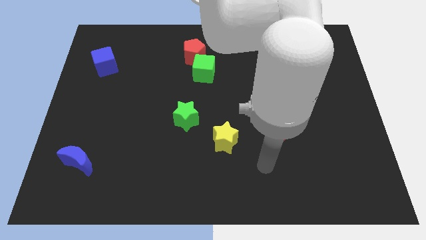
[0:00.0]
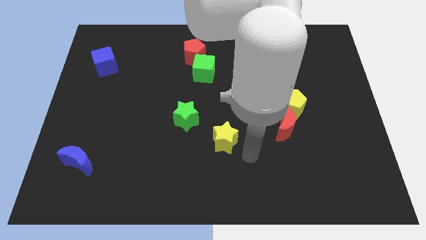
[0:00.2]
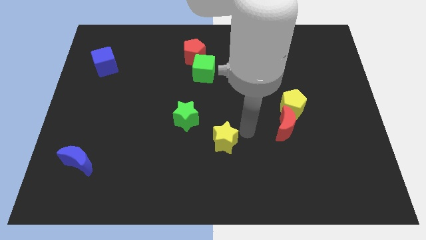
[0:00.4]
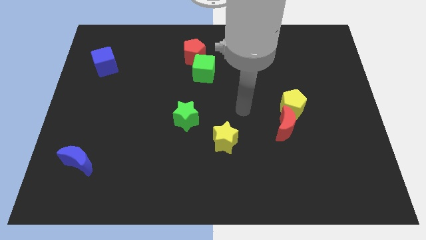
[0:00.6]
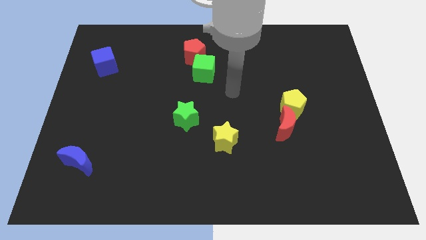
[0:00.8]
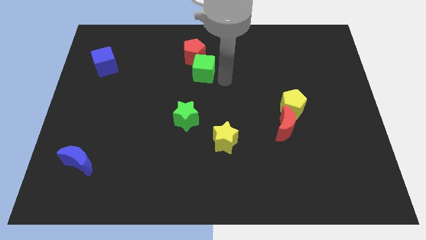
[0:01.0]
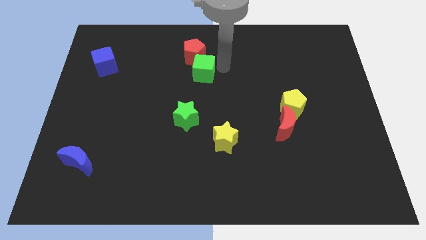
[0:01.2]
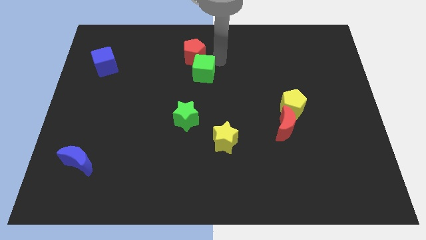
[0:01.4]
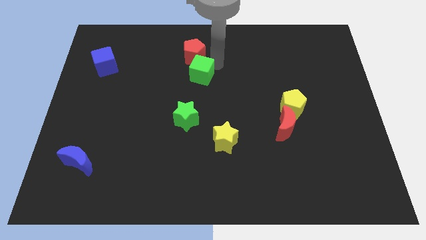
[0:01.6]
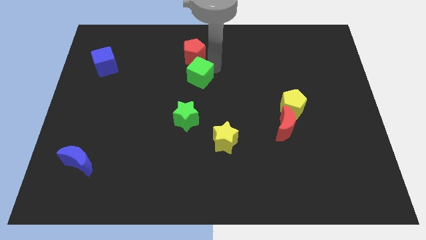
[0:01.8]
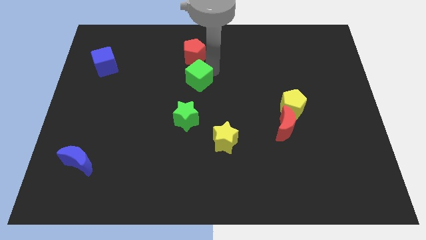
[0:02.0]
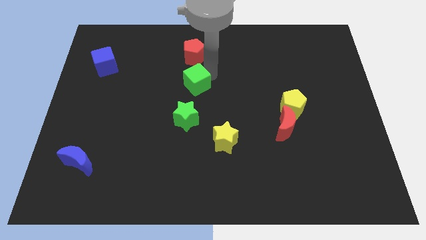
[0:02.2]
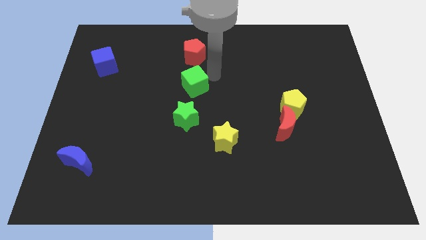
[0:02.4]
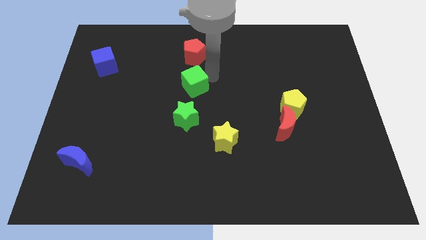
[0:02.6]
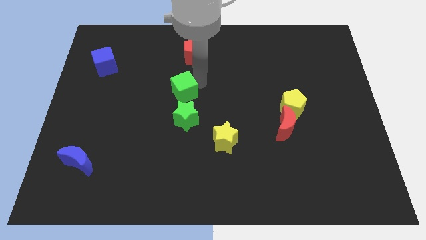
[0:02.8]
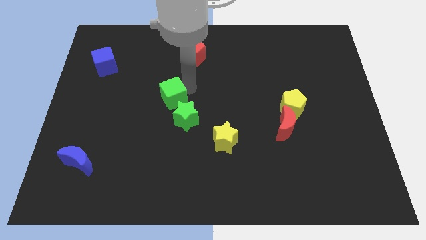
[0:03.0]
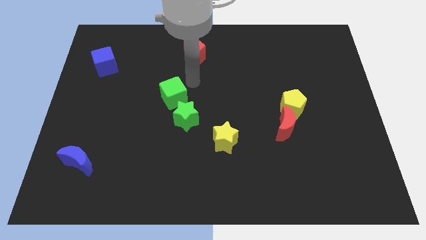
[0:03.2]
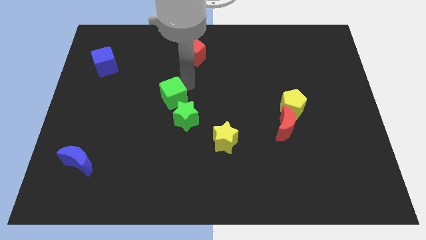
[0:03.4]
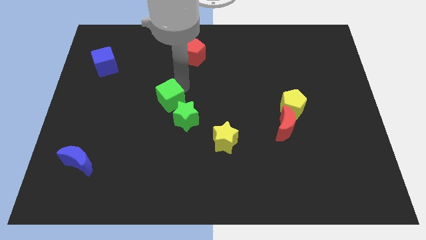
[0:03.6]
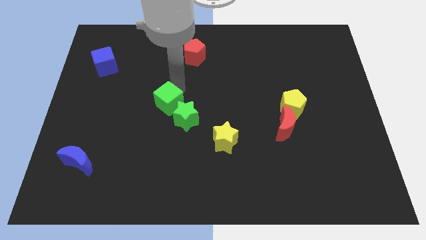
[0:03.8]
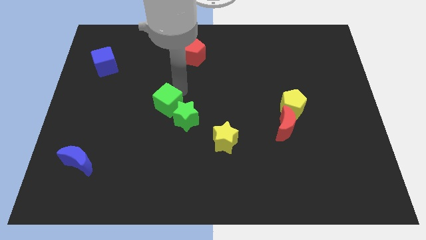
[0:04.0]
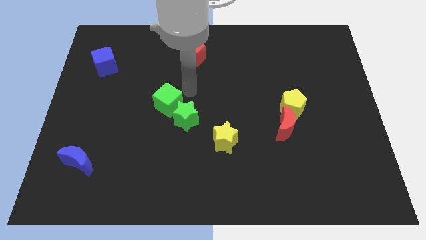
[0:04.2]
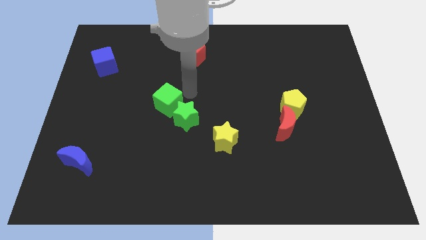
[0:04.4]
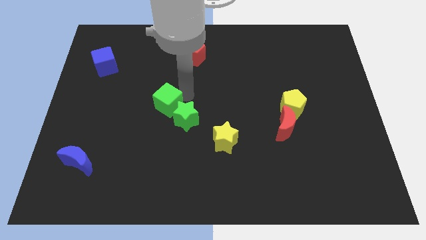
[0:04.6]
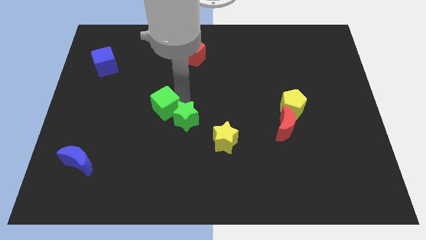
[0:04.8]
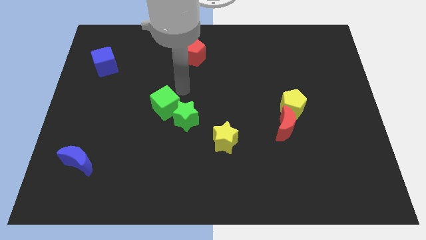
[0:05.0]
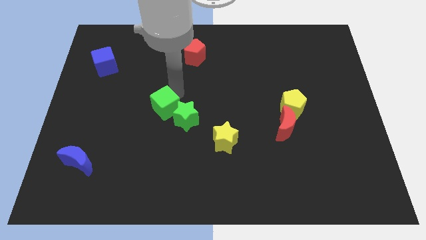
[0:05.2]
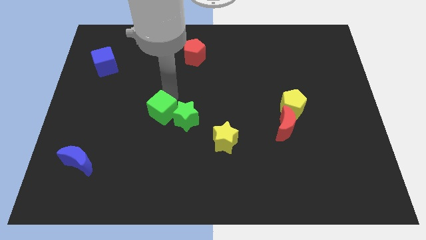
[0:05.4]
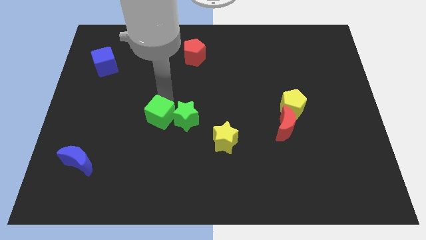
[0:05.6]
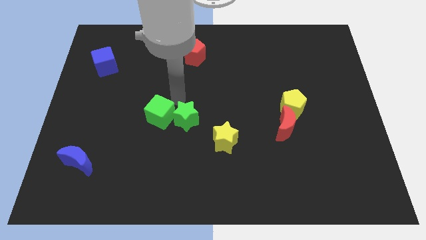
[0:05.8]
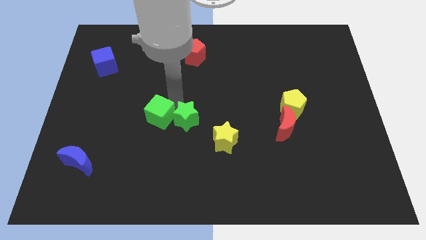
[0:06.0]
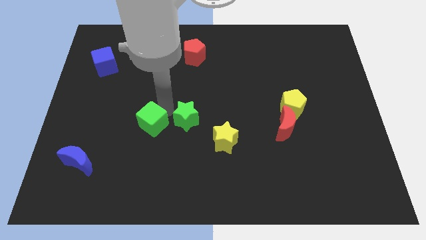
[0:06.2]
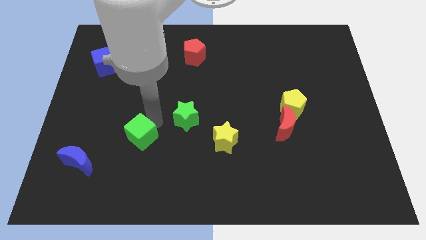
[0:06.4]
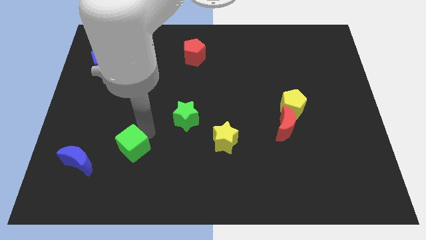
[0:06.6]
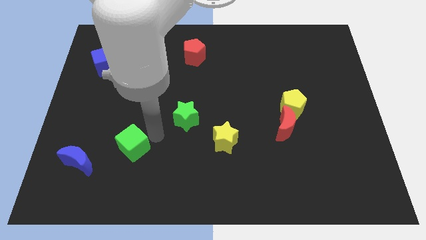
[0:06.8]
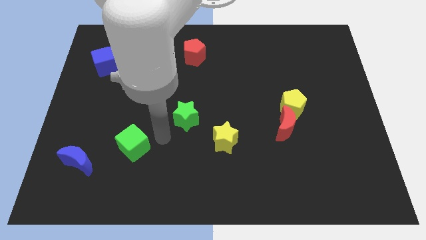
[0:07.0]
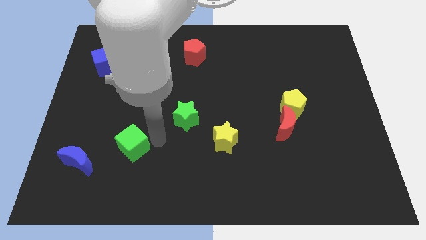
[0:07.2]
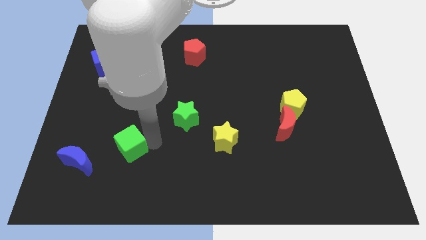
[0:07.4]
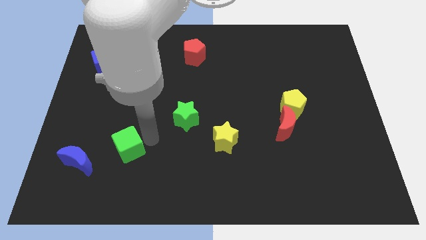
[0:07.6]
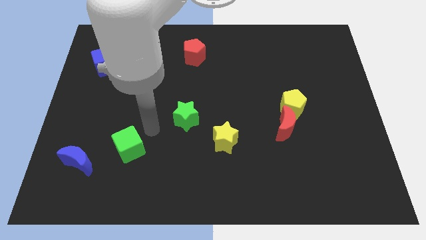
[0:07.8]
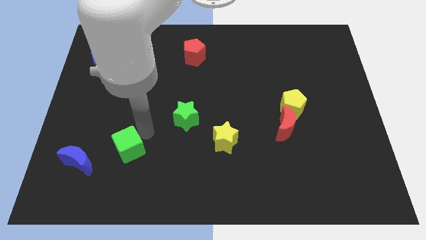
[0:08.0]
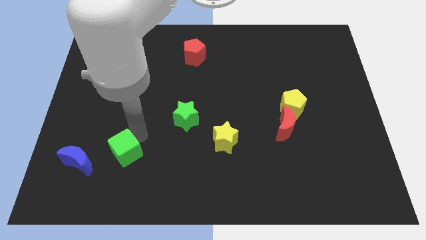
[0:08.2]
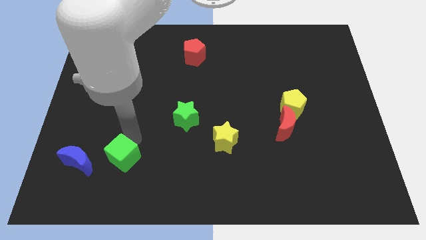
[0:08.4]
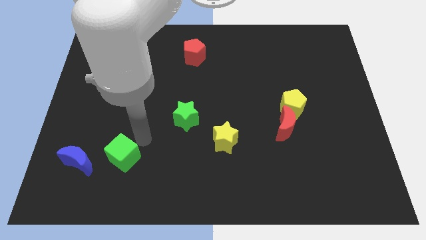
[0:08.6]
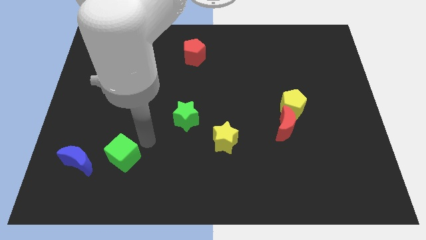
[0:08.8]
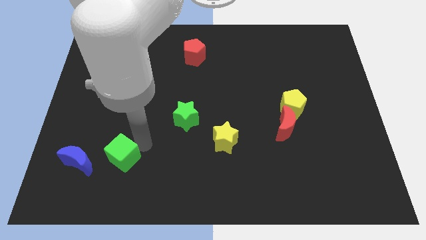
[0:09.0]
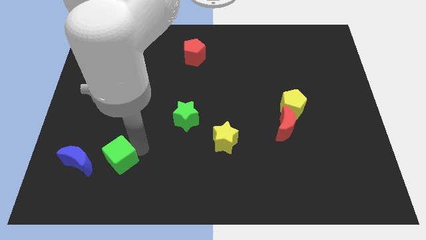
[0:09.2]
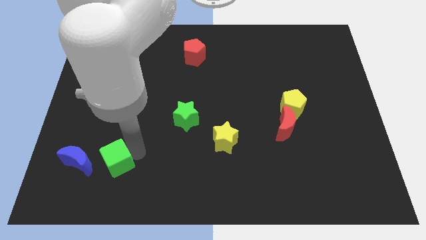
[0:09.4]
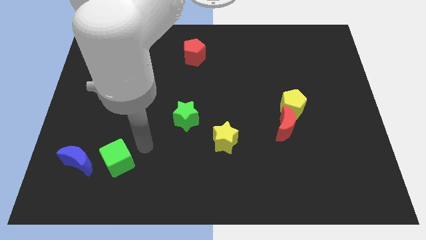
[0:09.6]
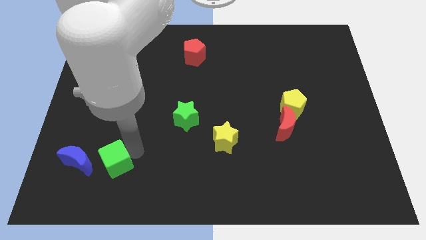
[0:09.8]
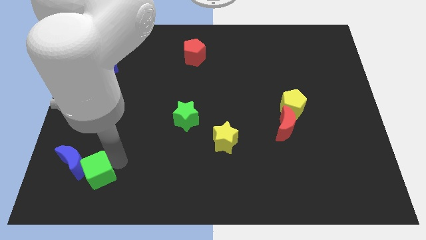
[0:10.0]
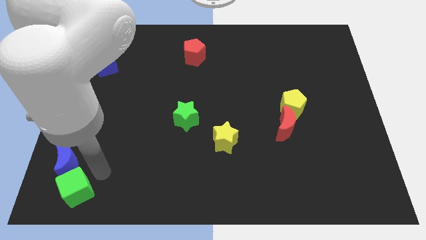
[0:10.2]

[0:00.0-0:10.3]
slide the green cube to the bottom left of the board
